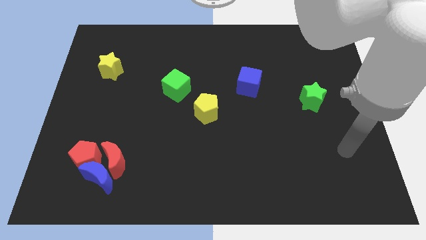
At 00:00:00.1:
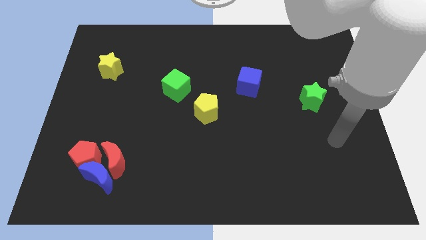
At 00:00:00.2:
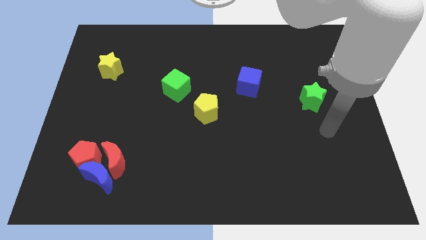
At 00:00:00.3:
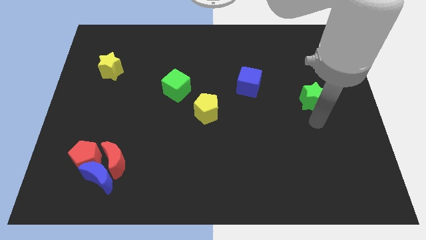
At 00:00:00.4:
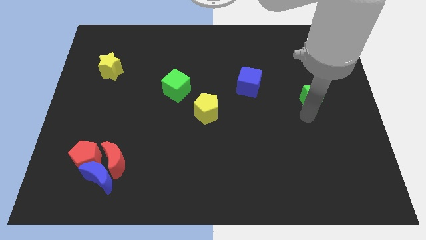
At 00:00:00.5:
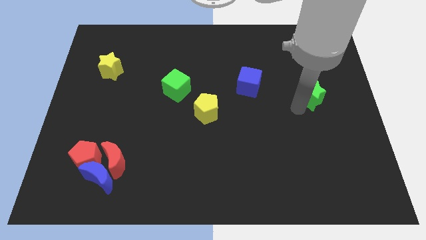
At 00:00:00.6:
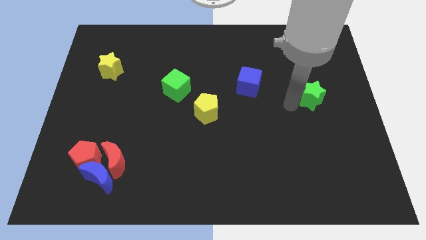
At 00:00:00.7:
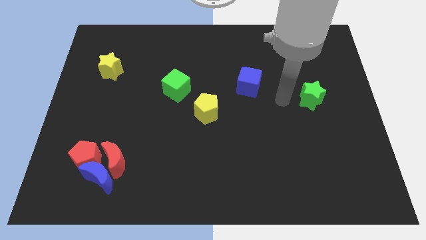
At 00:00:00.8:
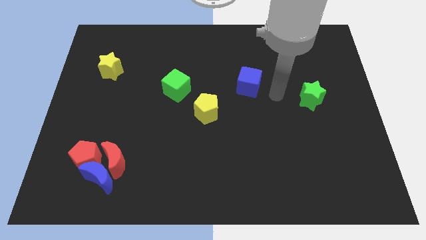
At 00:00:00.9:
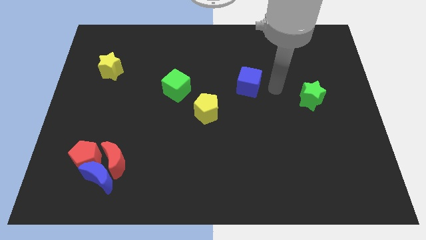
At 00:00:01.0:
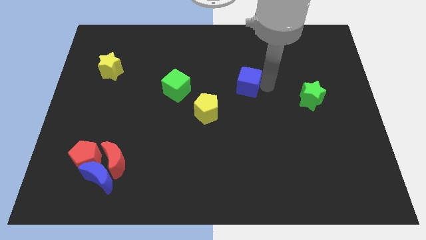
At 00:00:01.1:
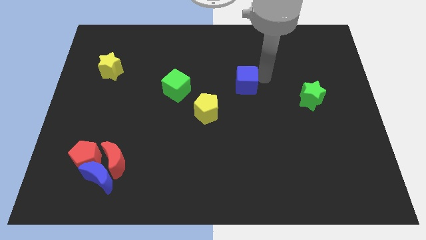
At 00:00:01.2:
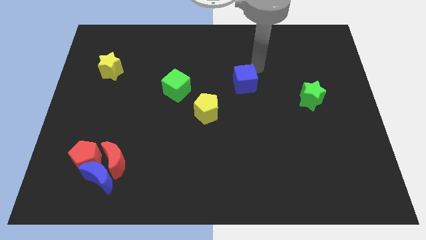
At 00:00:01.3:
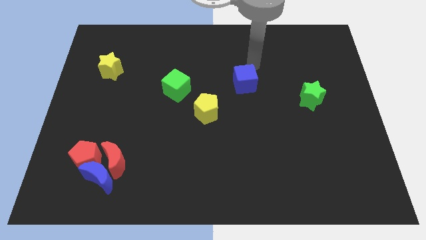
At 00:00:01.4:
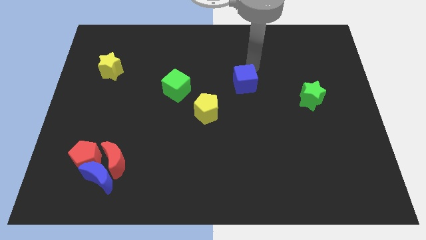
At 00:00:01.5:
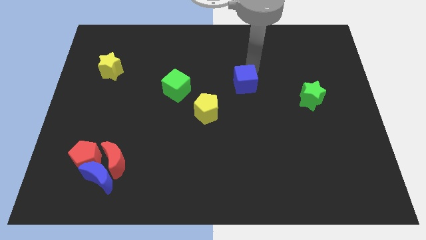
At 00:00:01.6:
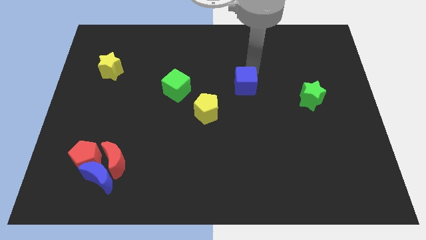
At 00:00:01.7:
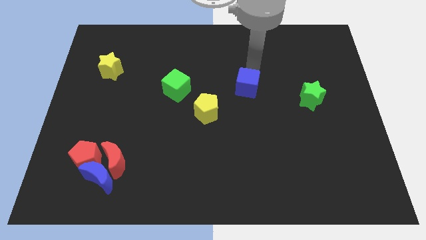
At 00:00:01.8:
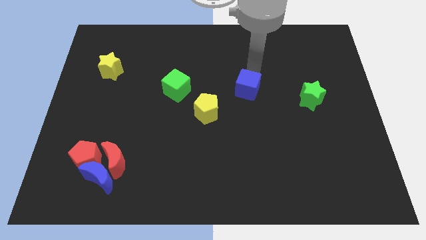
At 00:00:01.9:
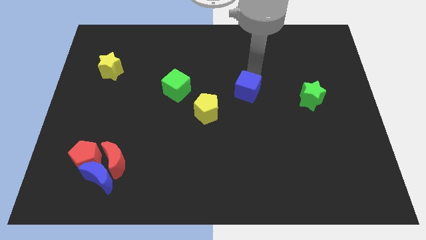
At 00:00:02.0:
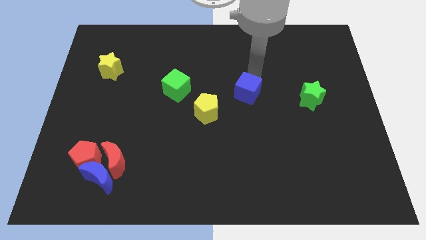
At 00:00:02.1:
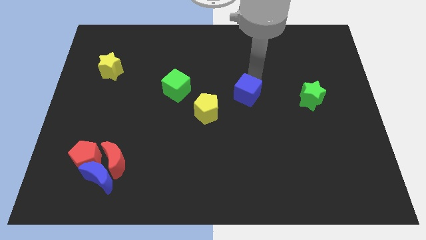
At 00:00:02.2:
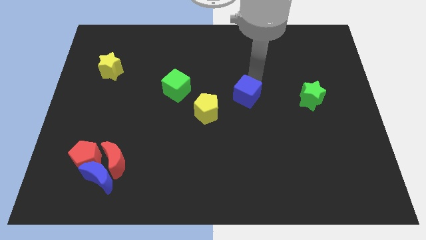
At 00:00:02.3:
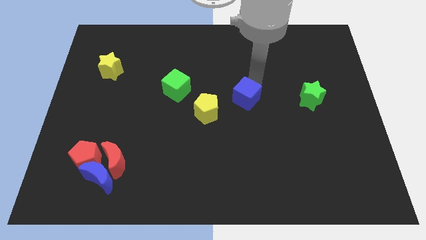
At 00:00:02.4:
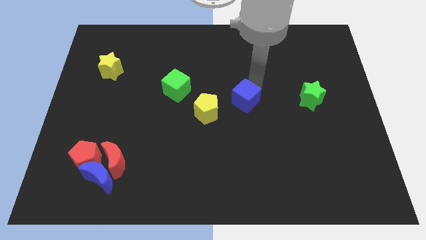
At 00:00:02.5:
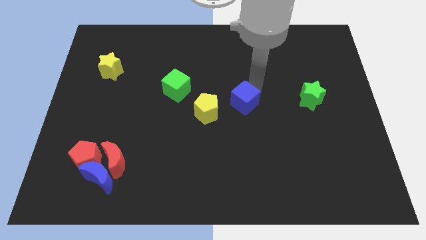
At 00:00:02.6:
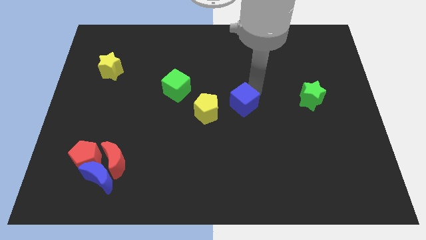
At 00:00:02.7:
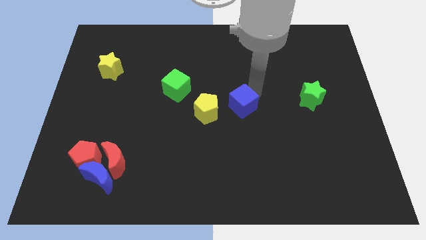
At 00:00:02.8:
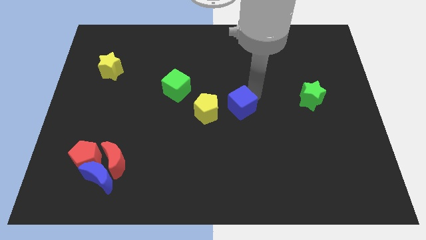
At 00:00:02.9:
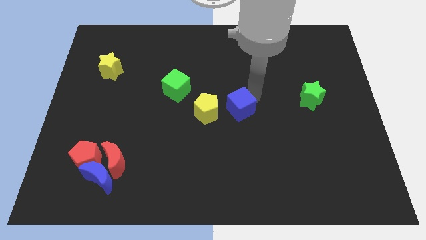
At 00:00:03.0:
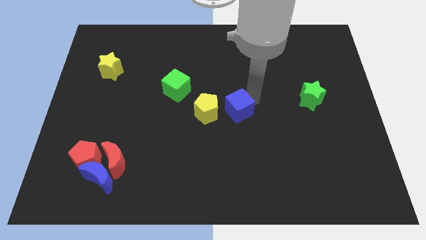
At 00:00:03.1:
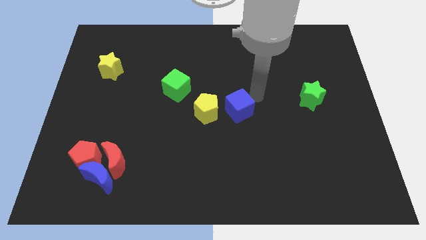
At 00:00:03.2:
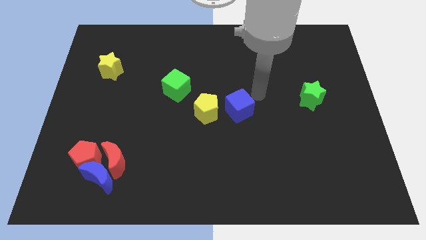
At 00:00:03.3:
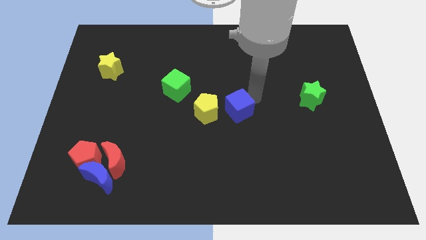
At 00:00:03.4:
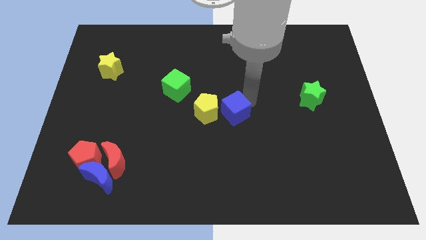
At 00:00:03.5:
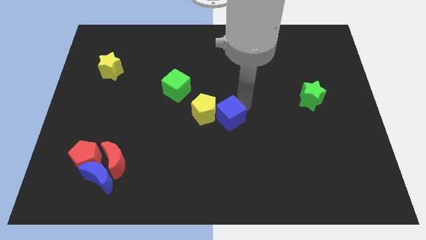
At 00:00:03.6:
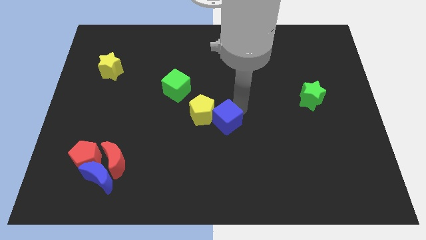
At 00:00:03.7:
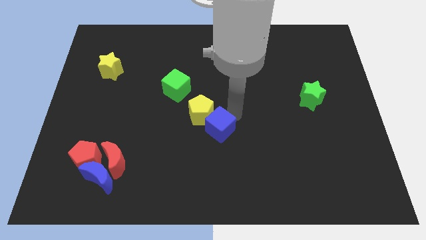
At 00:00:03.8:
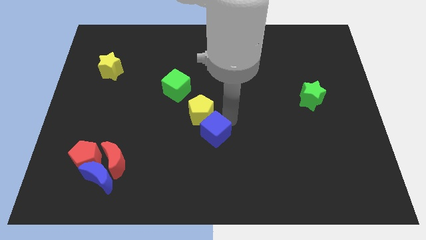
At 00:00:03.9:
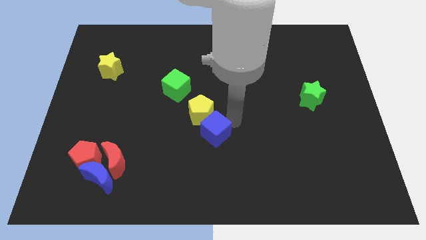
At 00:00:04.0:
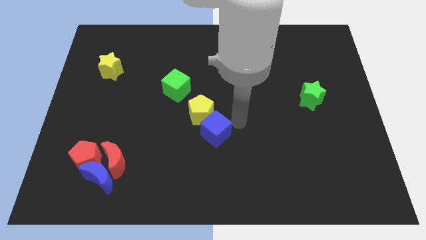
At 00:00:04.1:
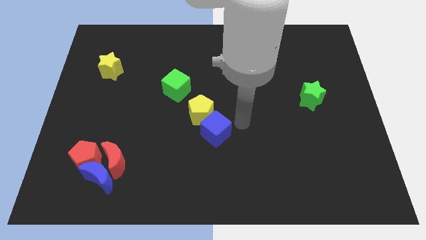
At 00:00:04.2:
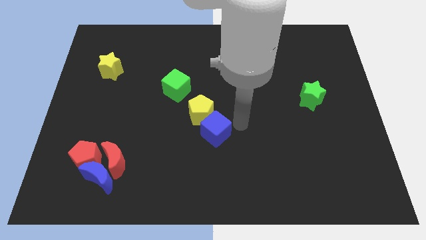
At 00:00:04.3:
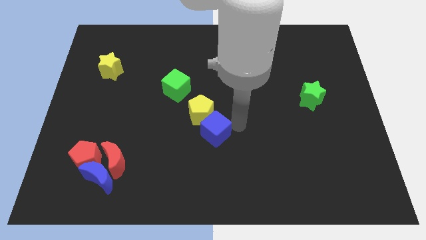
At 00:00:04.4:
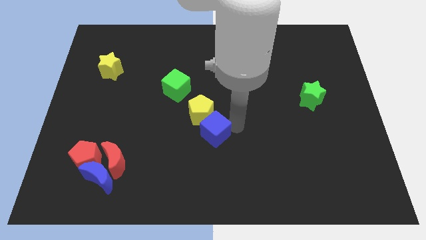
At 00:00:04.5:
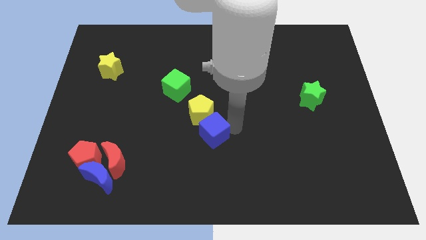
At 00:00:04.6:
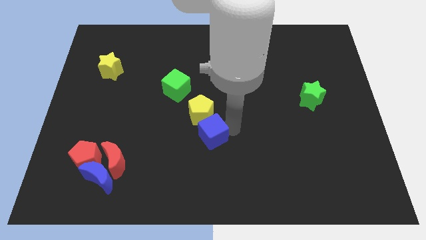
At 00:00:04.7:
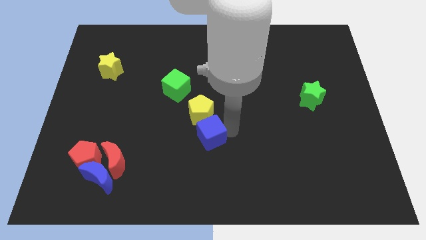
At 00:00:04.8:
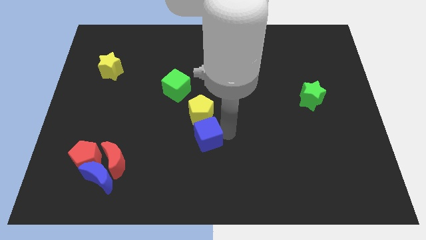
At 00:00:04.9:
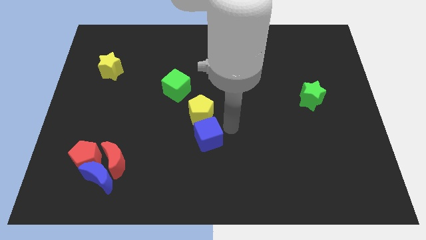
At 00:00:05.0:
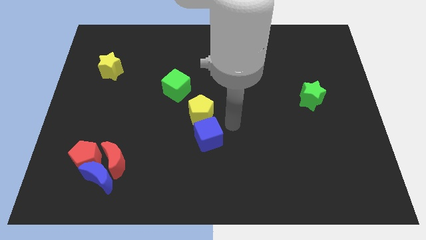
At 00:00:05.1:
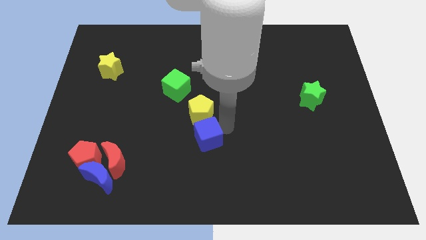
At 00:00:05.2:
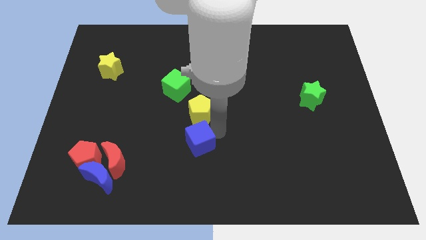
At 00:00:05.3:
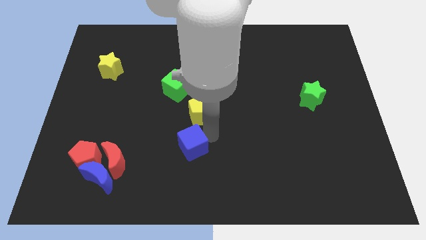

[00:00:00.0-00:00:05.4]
move the blue cube down and left diagonally

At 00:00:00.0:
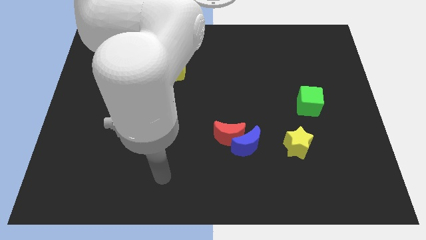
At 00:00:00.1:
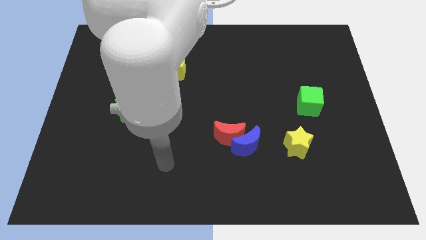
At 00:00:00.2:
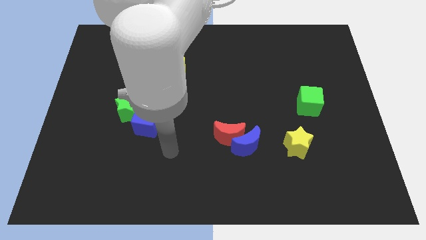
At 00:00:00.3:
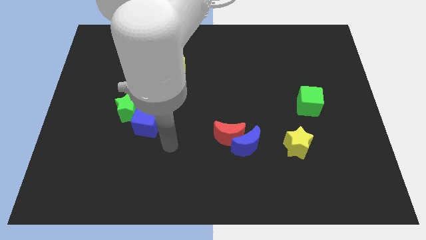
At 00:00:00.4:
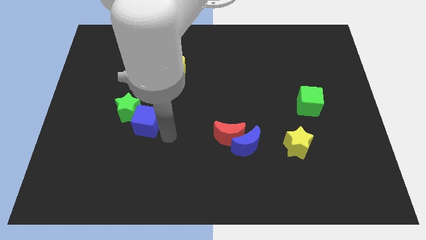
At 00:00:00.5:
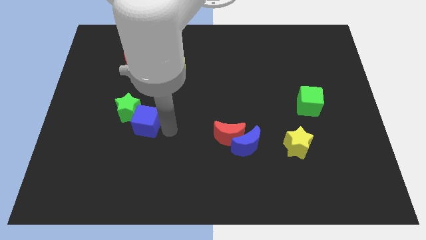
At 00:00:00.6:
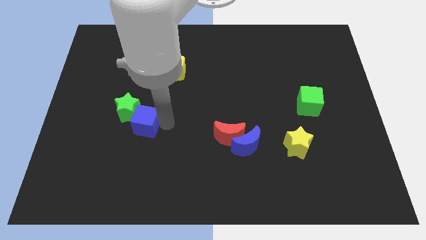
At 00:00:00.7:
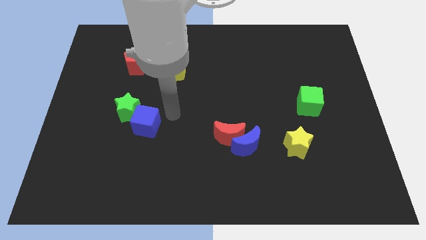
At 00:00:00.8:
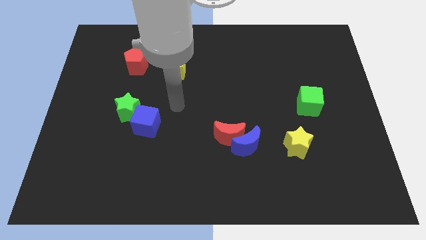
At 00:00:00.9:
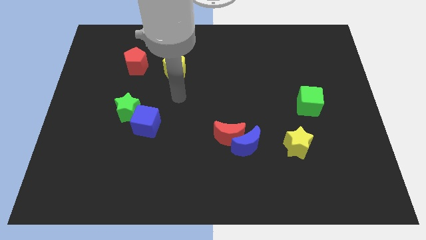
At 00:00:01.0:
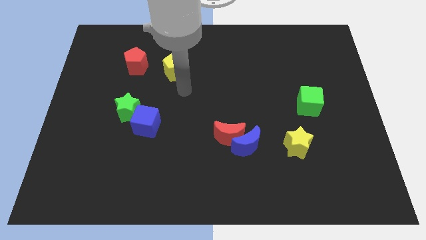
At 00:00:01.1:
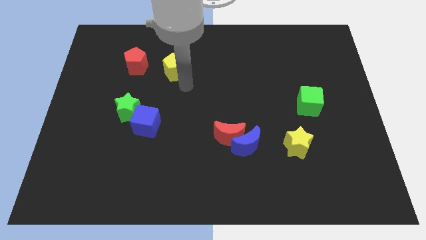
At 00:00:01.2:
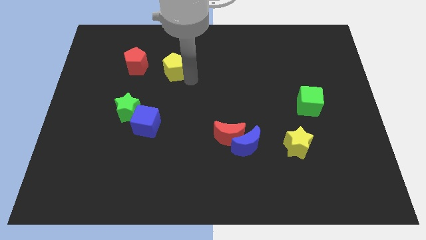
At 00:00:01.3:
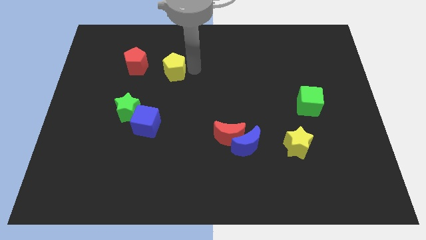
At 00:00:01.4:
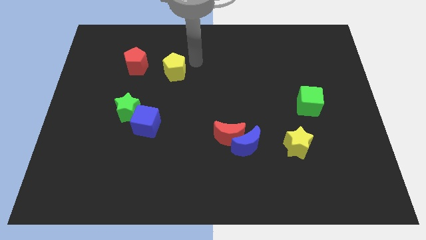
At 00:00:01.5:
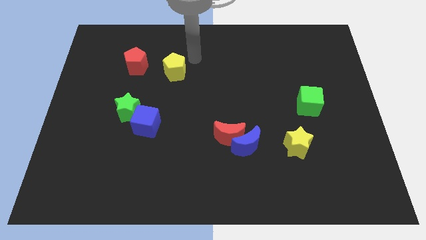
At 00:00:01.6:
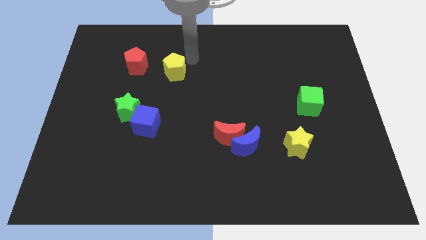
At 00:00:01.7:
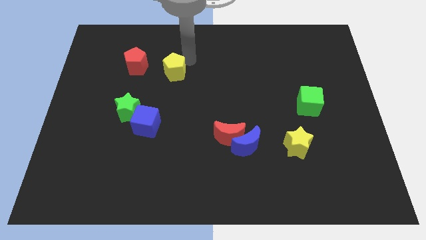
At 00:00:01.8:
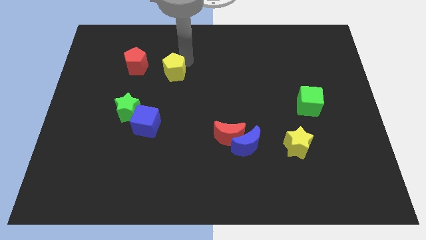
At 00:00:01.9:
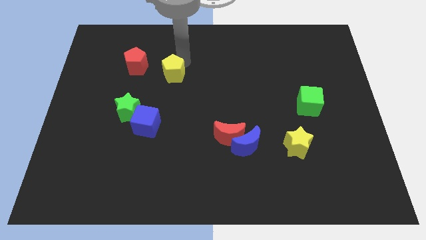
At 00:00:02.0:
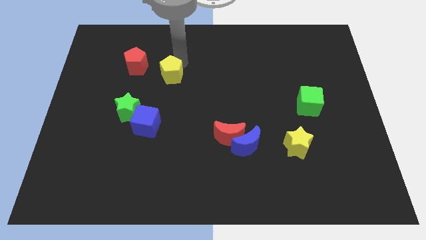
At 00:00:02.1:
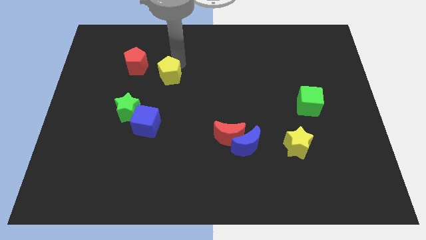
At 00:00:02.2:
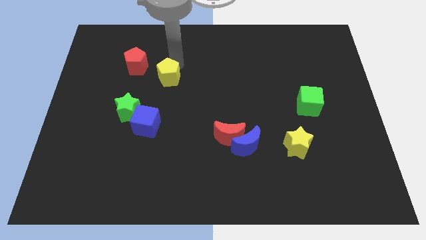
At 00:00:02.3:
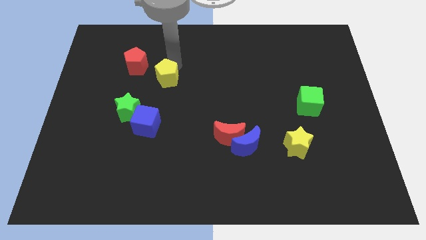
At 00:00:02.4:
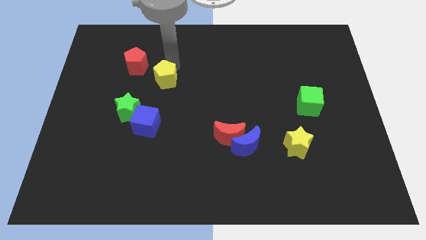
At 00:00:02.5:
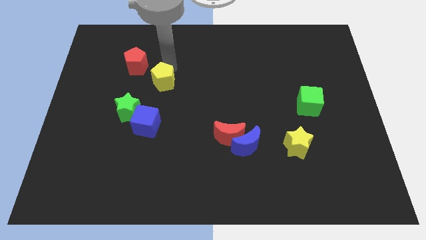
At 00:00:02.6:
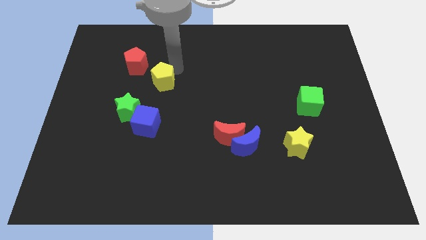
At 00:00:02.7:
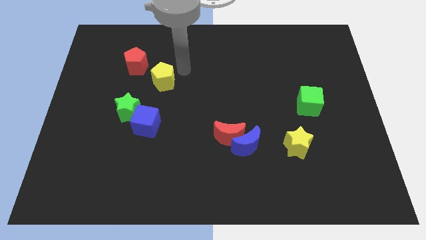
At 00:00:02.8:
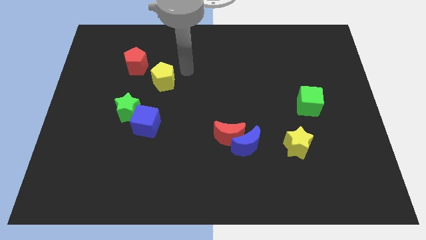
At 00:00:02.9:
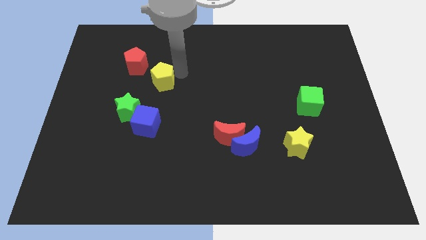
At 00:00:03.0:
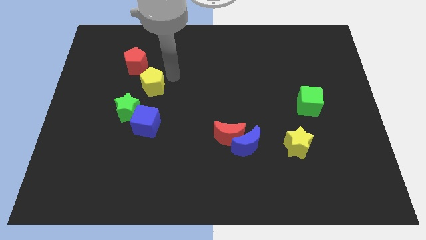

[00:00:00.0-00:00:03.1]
slightly push the yellow pentagon downwards and left
